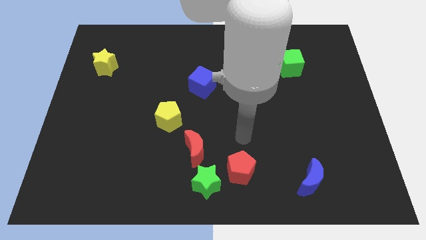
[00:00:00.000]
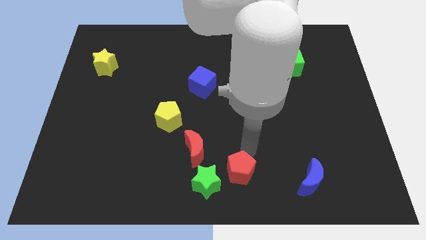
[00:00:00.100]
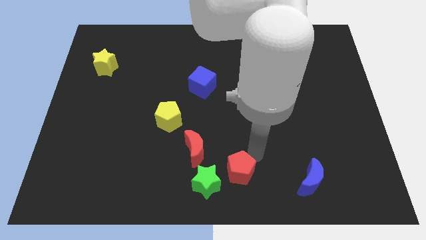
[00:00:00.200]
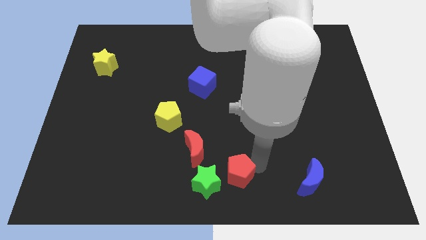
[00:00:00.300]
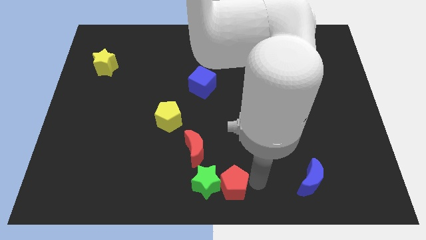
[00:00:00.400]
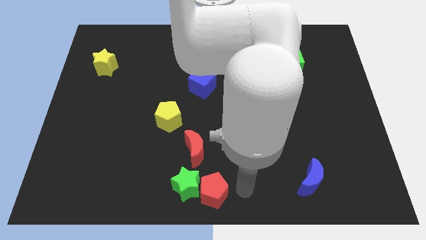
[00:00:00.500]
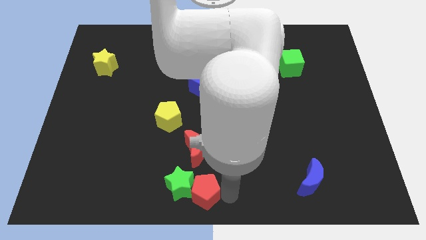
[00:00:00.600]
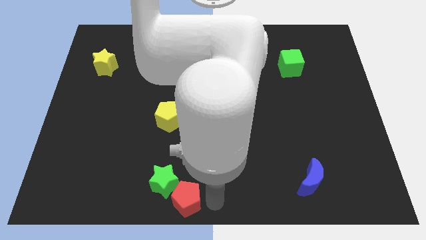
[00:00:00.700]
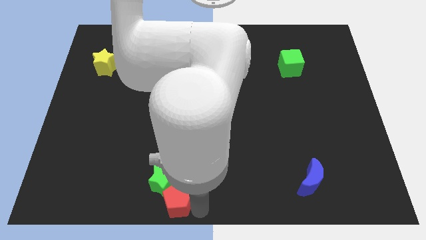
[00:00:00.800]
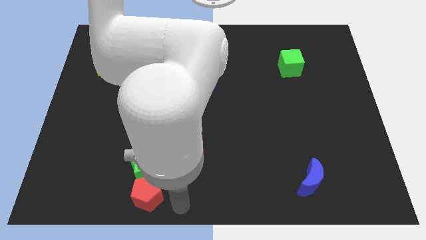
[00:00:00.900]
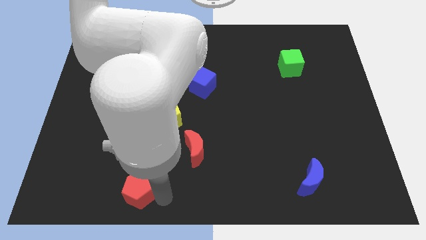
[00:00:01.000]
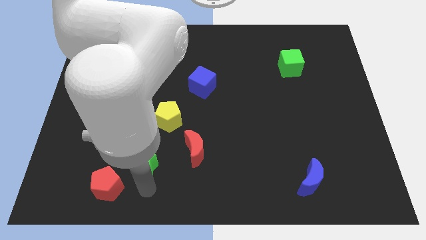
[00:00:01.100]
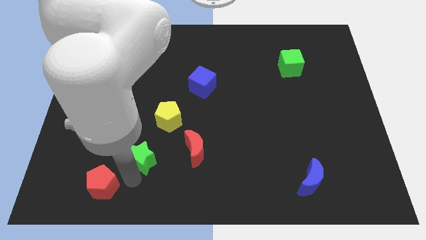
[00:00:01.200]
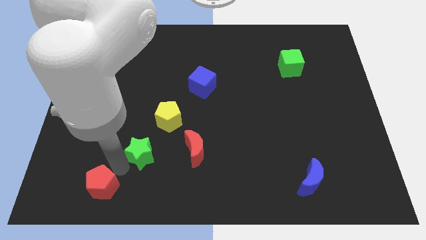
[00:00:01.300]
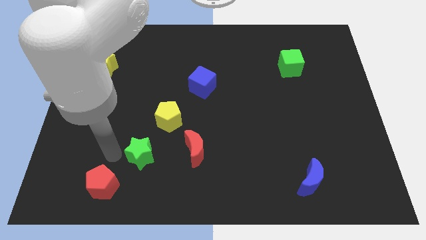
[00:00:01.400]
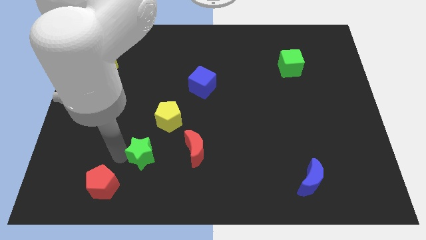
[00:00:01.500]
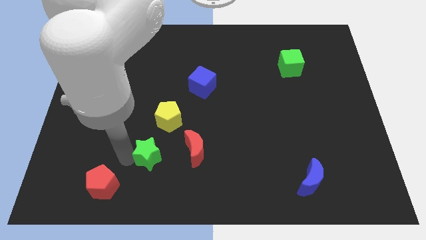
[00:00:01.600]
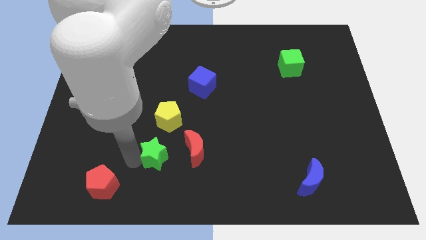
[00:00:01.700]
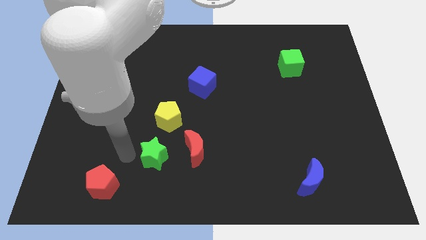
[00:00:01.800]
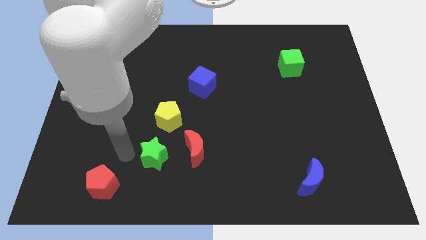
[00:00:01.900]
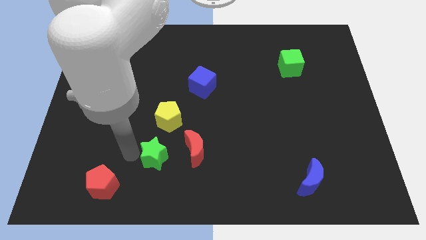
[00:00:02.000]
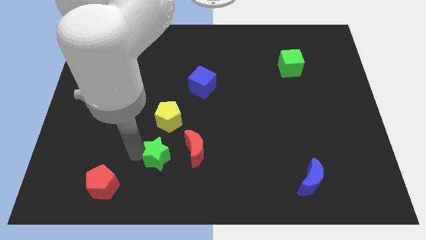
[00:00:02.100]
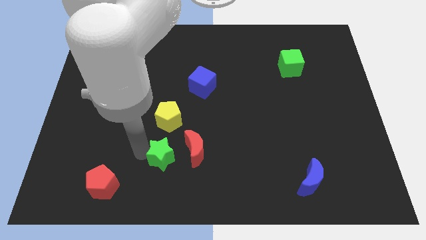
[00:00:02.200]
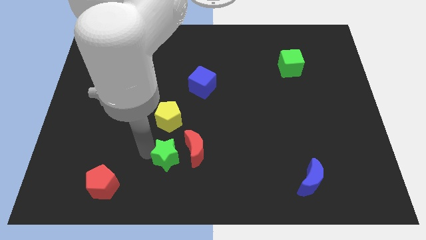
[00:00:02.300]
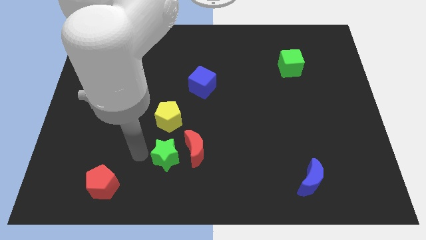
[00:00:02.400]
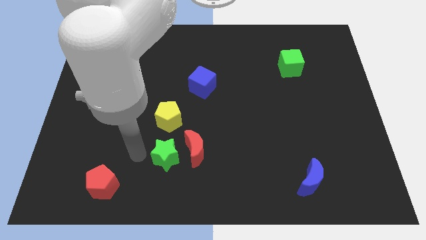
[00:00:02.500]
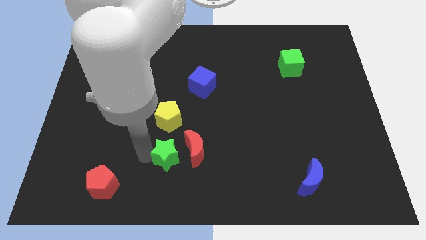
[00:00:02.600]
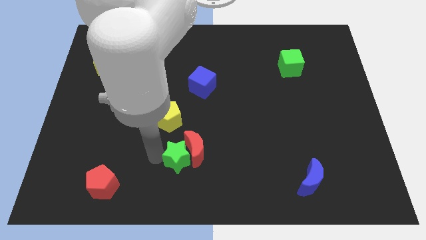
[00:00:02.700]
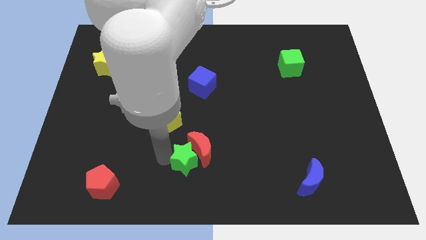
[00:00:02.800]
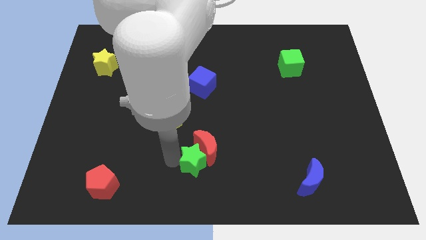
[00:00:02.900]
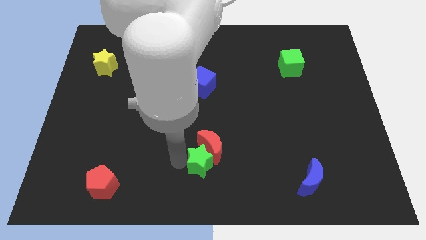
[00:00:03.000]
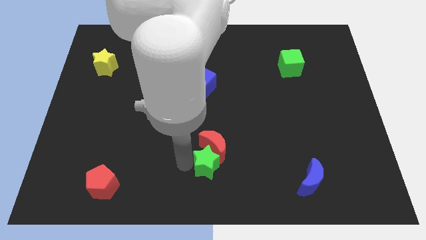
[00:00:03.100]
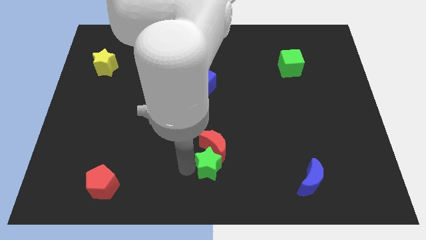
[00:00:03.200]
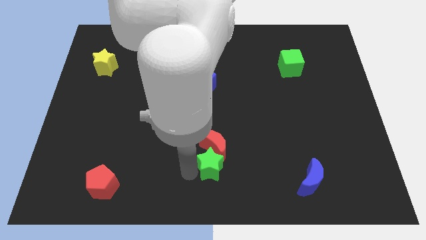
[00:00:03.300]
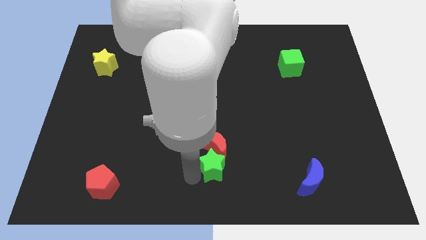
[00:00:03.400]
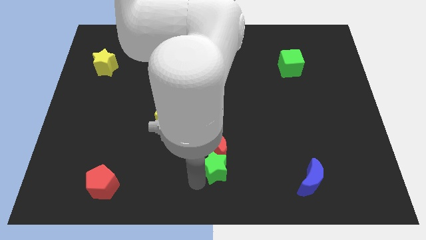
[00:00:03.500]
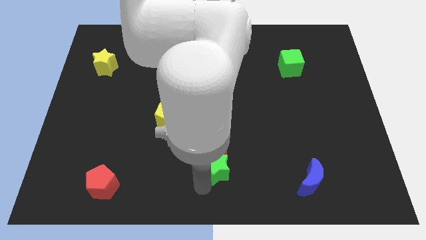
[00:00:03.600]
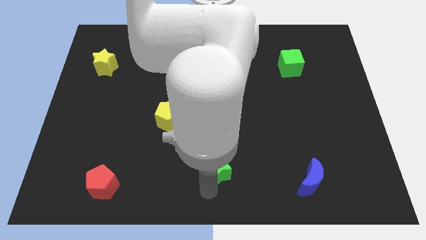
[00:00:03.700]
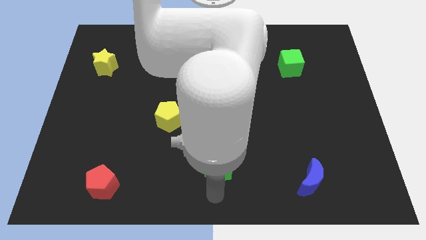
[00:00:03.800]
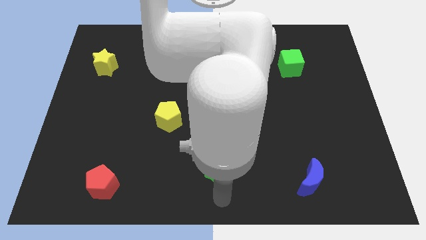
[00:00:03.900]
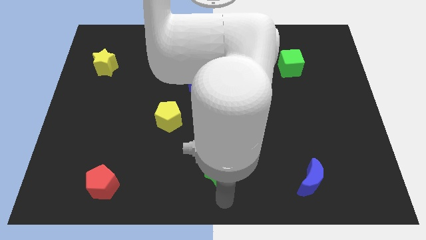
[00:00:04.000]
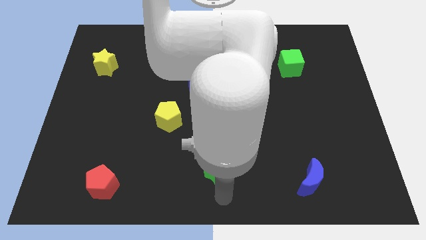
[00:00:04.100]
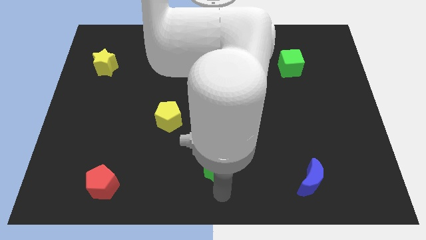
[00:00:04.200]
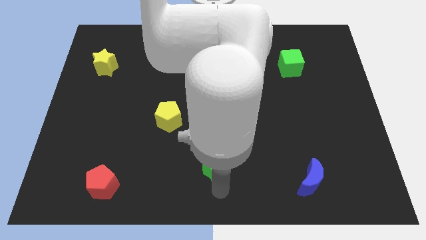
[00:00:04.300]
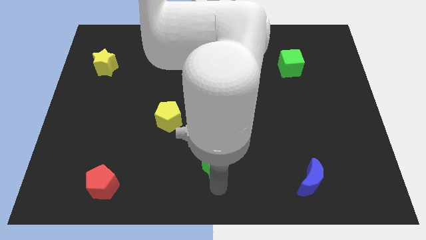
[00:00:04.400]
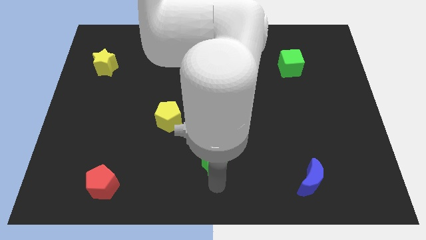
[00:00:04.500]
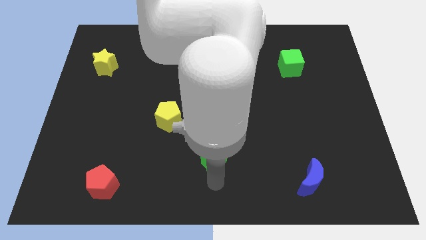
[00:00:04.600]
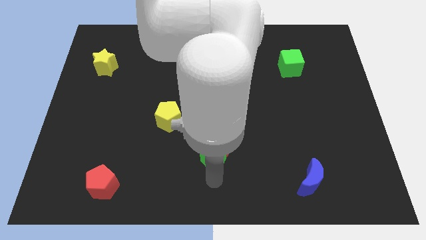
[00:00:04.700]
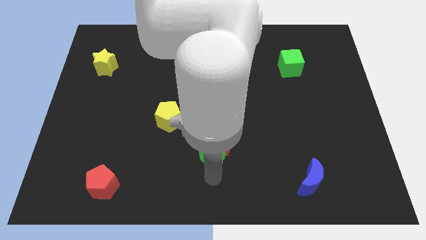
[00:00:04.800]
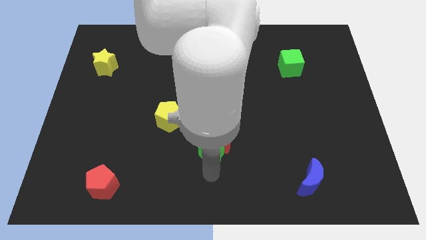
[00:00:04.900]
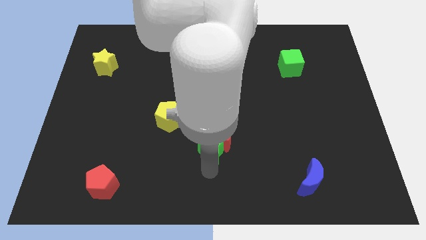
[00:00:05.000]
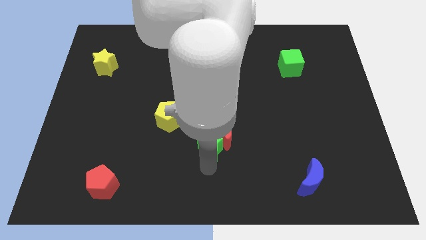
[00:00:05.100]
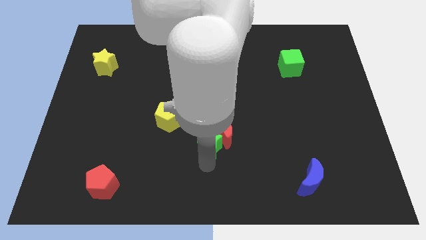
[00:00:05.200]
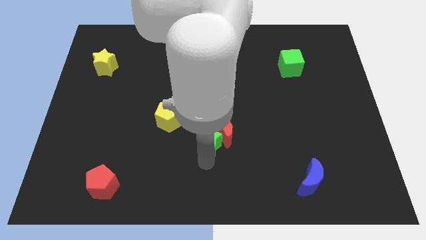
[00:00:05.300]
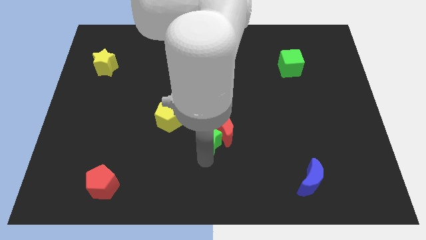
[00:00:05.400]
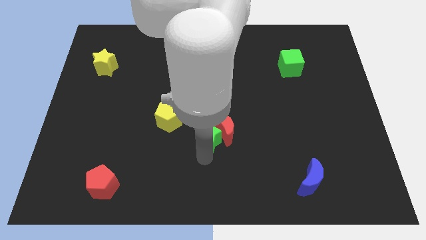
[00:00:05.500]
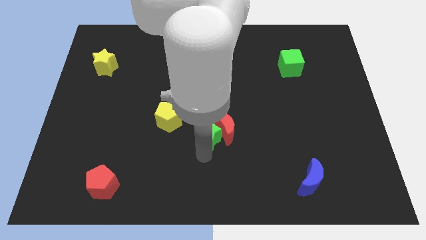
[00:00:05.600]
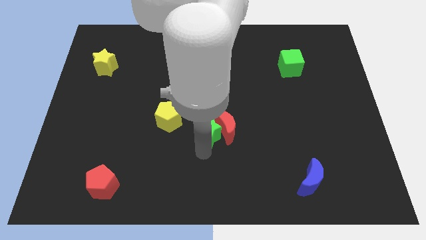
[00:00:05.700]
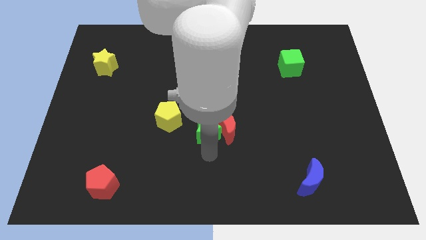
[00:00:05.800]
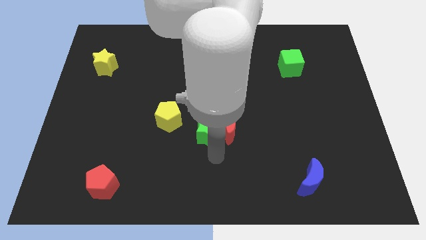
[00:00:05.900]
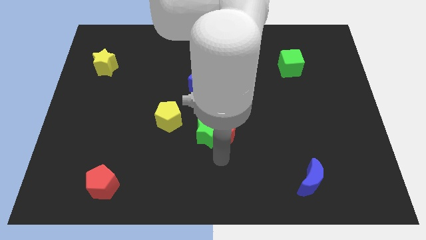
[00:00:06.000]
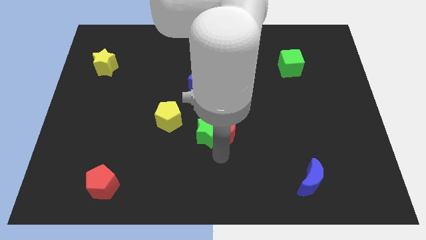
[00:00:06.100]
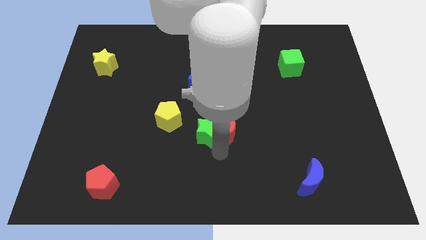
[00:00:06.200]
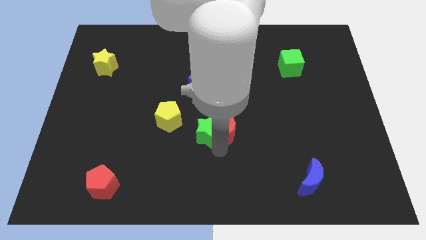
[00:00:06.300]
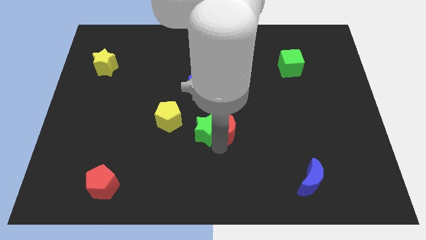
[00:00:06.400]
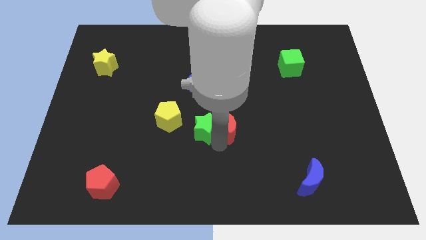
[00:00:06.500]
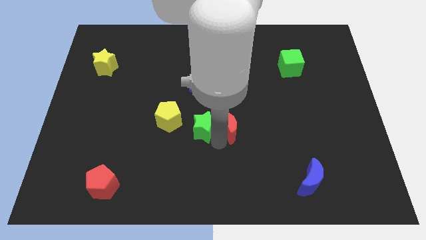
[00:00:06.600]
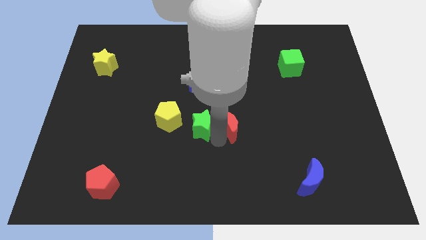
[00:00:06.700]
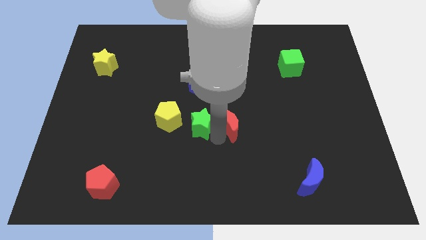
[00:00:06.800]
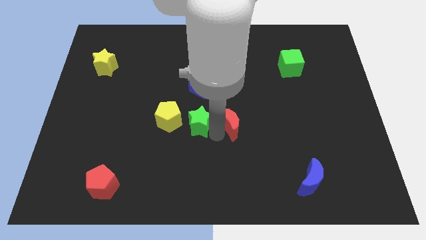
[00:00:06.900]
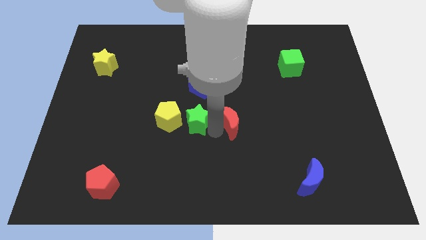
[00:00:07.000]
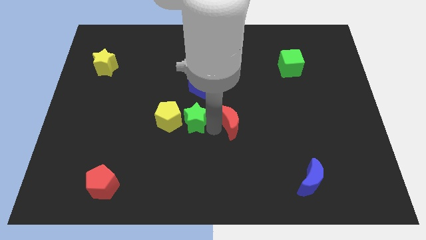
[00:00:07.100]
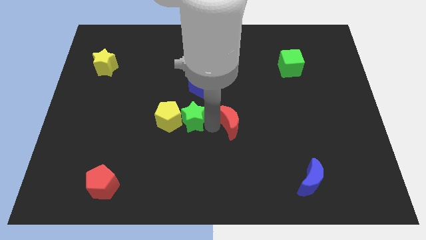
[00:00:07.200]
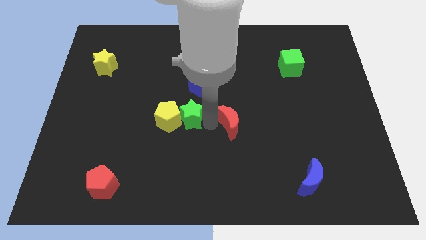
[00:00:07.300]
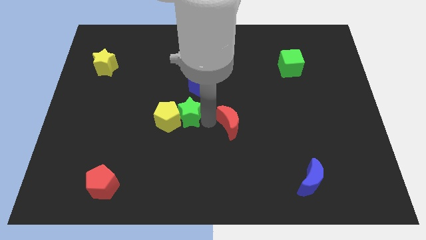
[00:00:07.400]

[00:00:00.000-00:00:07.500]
put the green star diagonally down and to the left of the blue cube
